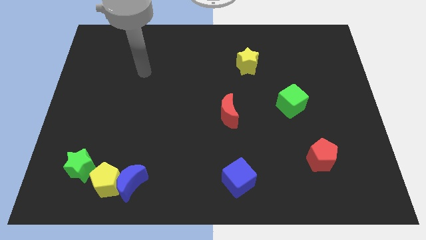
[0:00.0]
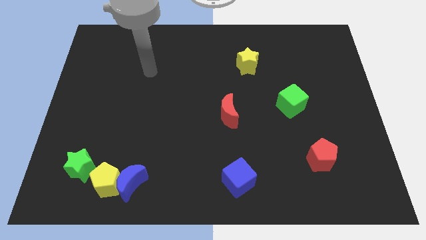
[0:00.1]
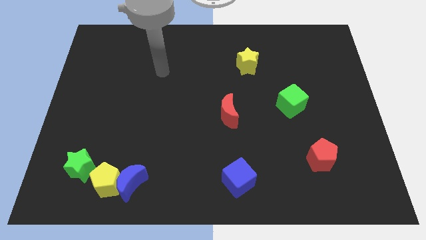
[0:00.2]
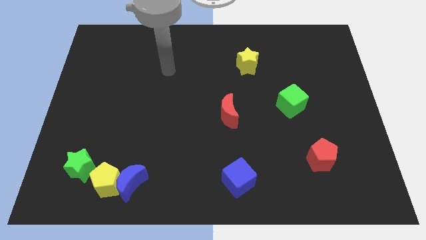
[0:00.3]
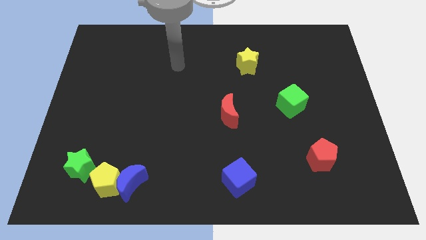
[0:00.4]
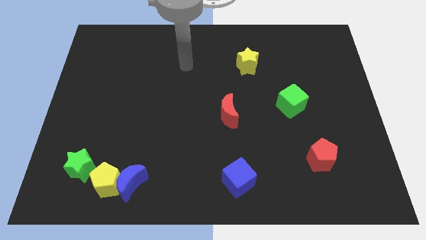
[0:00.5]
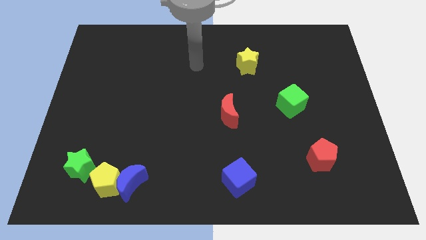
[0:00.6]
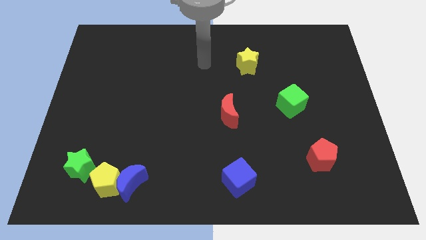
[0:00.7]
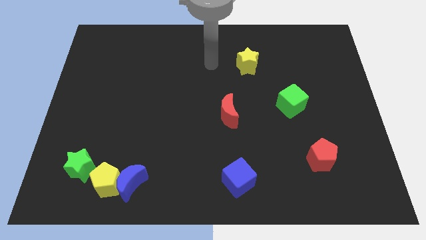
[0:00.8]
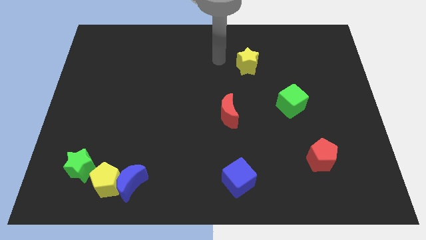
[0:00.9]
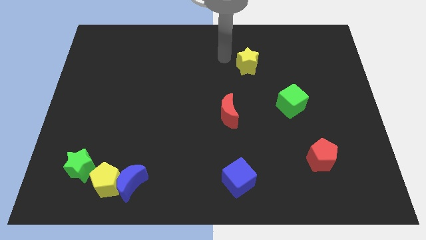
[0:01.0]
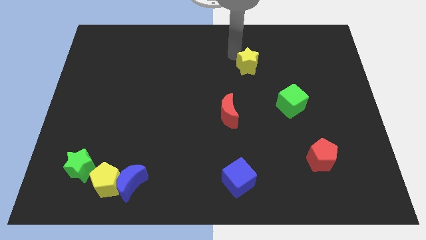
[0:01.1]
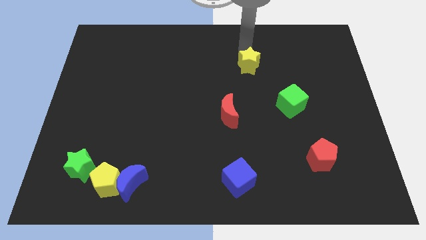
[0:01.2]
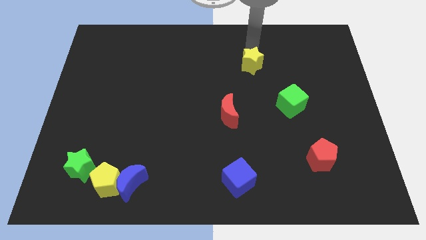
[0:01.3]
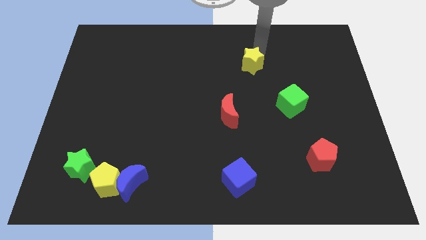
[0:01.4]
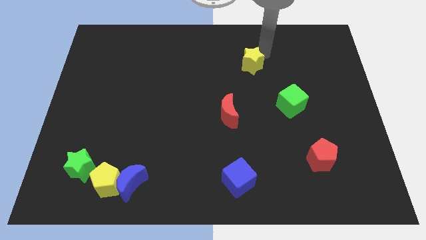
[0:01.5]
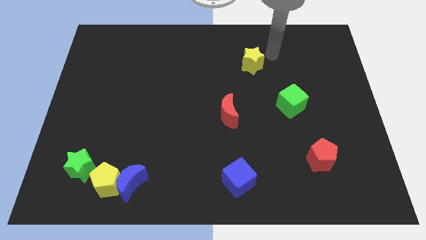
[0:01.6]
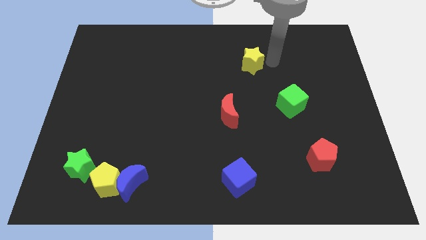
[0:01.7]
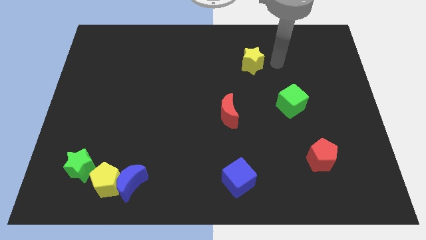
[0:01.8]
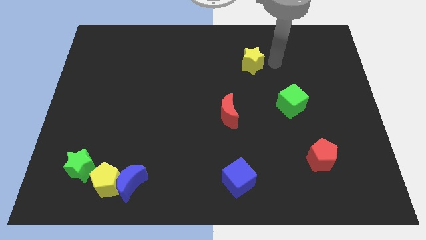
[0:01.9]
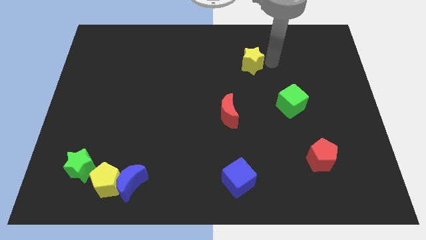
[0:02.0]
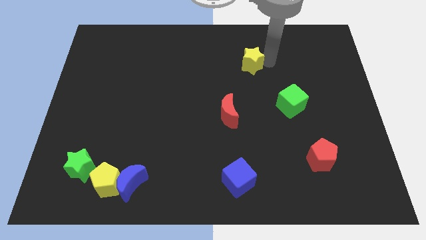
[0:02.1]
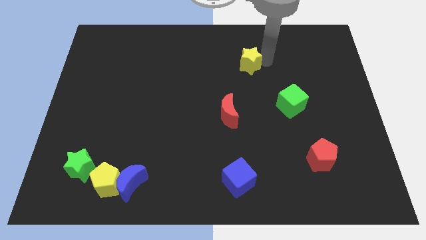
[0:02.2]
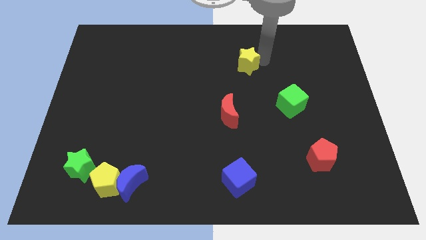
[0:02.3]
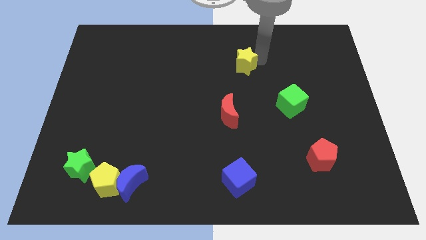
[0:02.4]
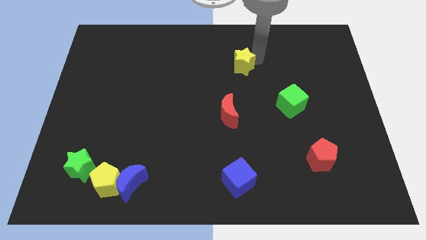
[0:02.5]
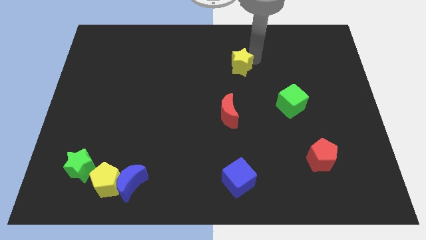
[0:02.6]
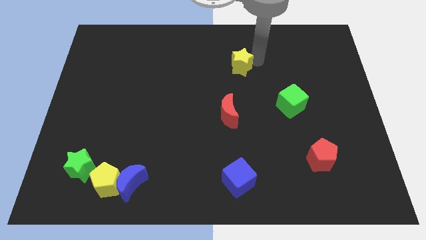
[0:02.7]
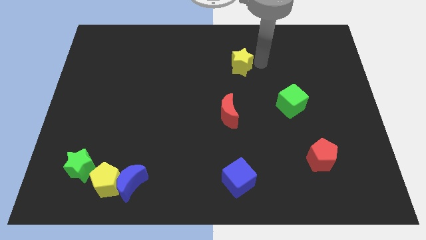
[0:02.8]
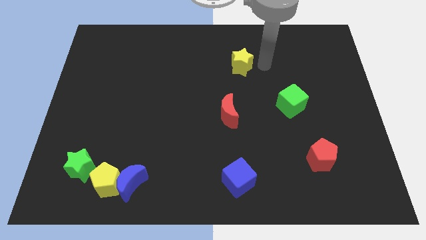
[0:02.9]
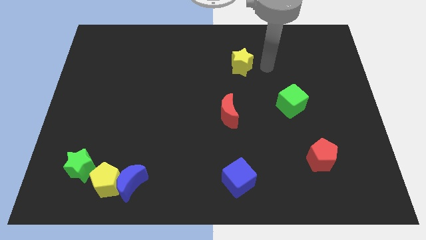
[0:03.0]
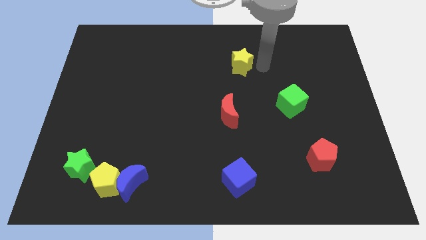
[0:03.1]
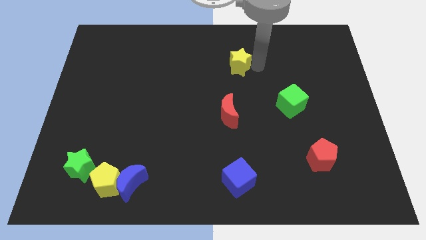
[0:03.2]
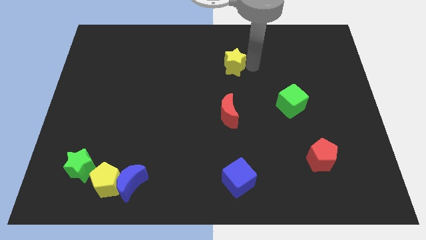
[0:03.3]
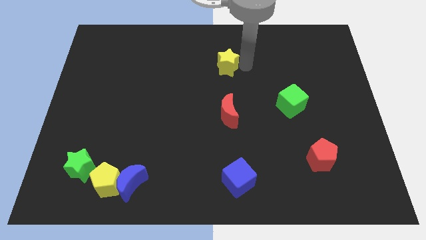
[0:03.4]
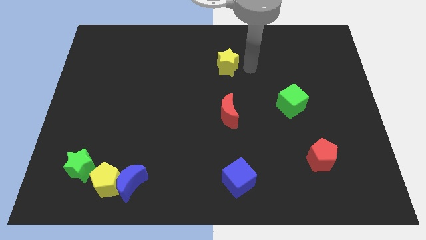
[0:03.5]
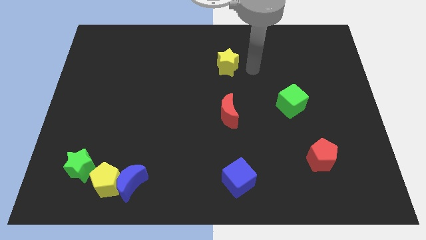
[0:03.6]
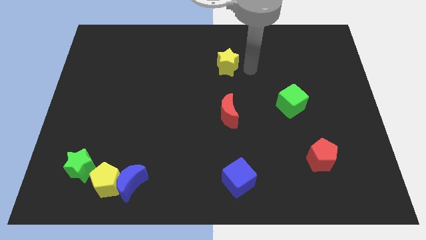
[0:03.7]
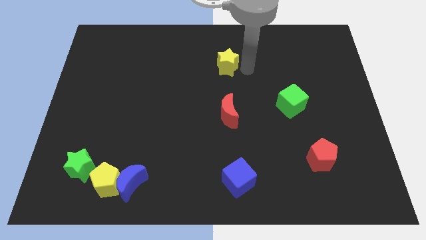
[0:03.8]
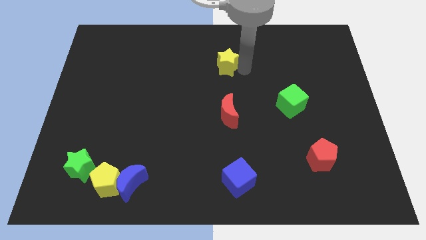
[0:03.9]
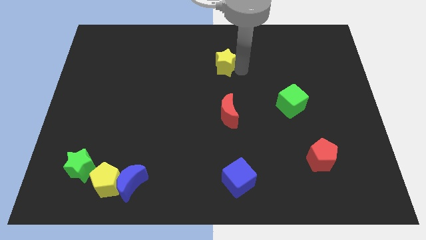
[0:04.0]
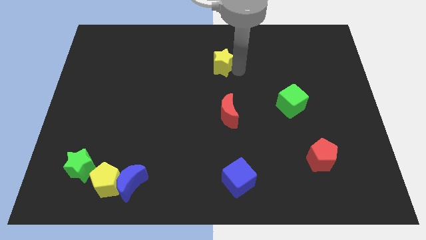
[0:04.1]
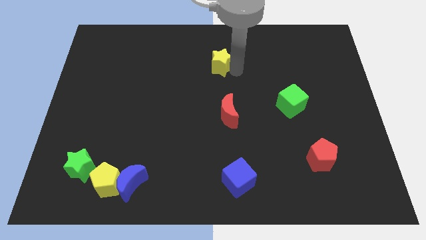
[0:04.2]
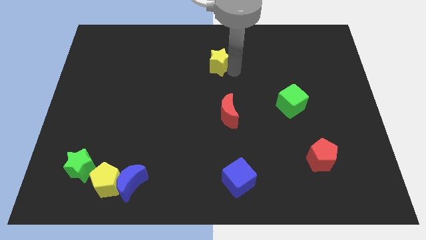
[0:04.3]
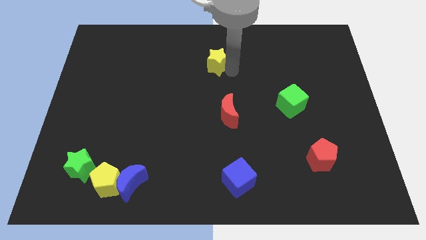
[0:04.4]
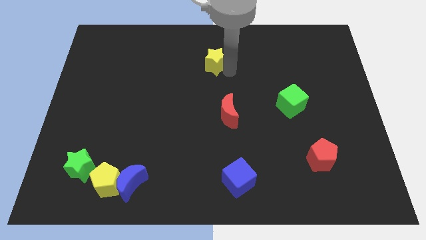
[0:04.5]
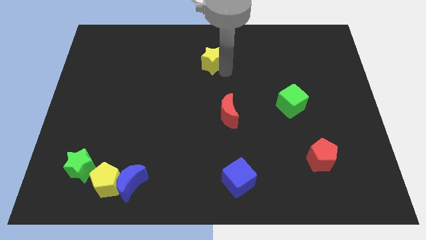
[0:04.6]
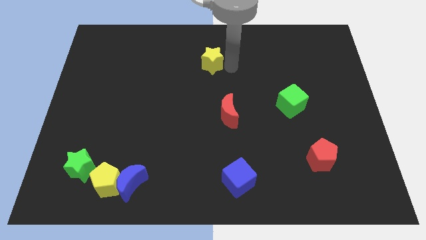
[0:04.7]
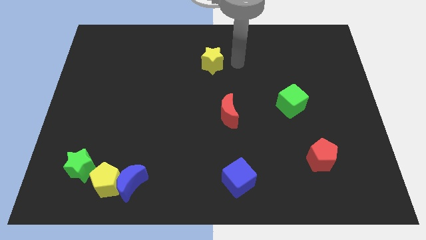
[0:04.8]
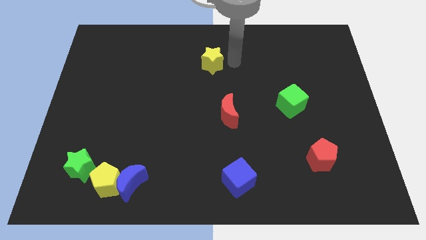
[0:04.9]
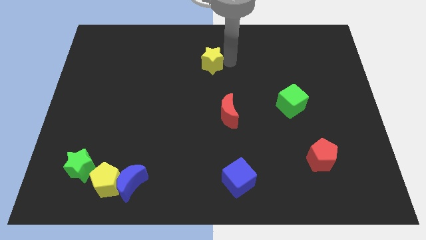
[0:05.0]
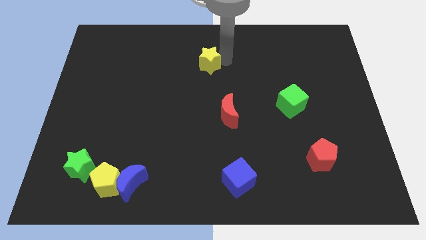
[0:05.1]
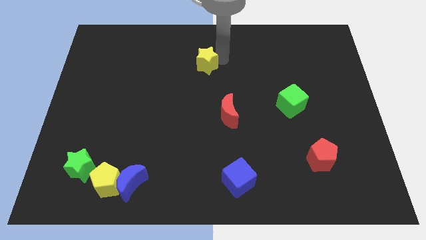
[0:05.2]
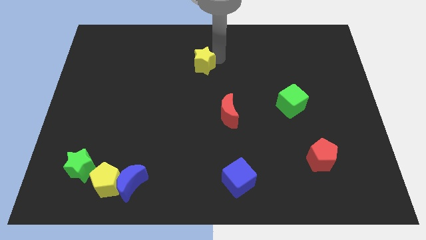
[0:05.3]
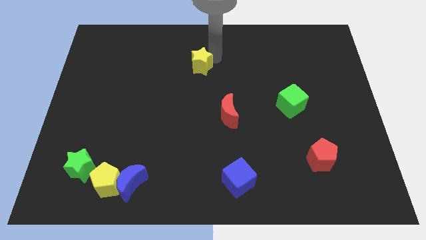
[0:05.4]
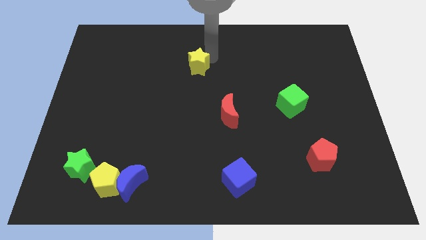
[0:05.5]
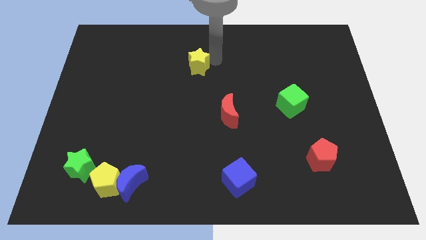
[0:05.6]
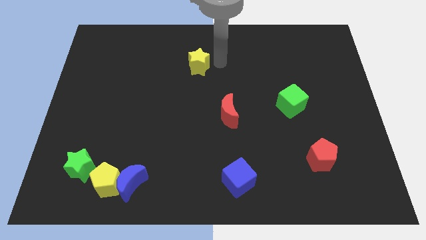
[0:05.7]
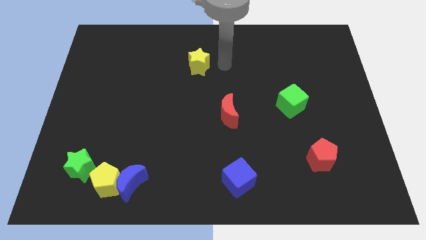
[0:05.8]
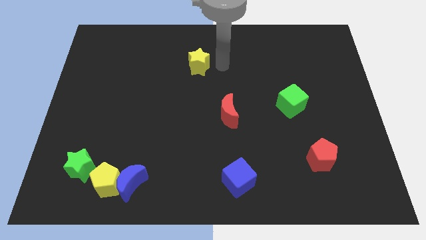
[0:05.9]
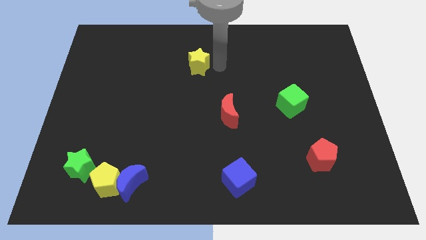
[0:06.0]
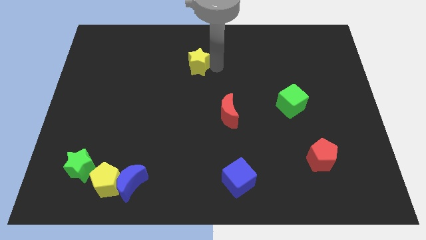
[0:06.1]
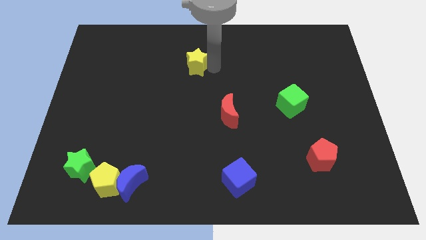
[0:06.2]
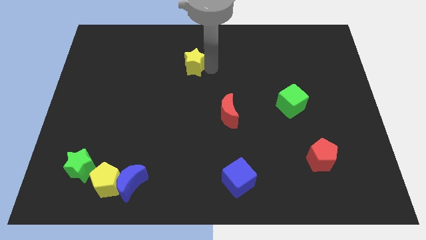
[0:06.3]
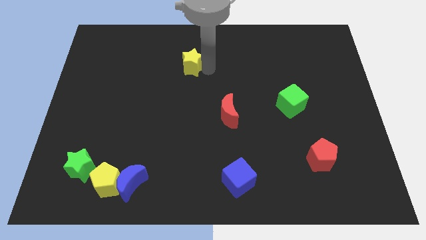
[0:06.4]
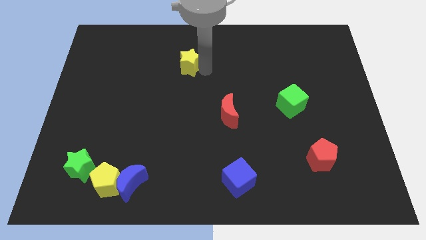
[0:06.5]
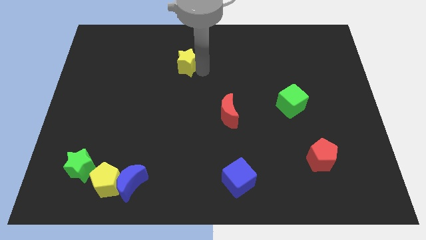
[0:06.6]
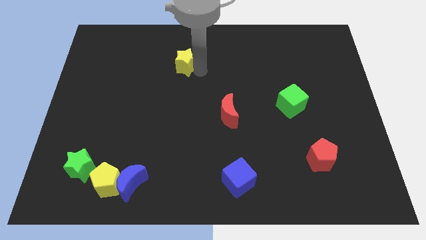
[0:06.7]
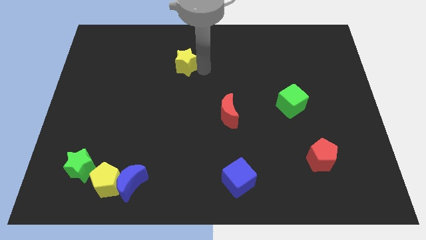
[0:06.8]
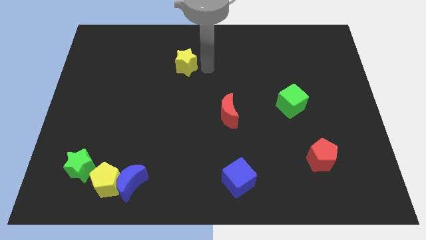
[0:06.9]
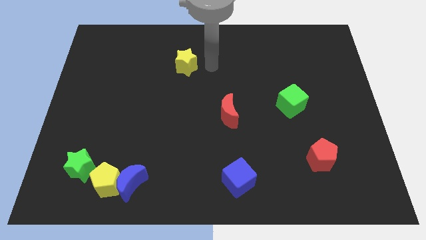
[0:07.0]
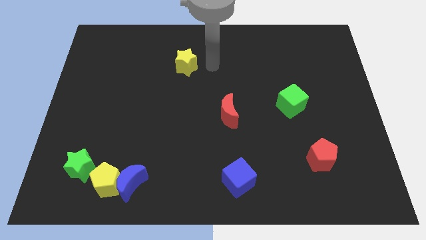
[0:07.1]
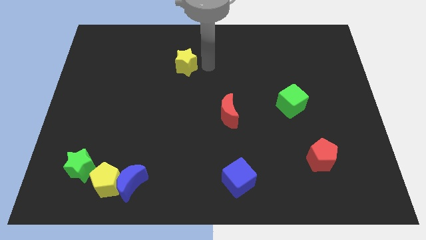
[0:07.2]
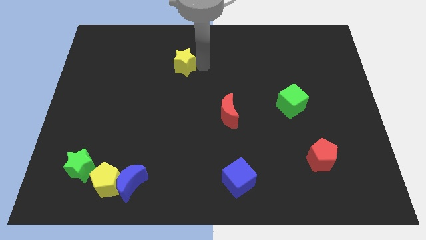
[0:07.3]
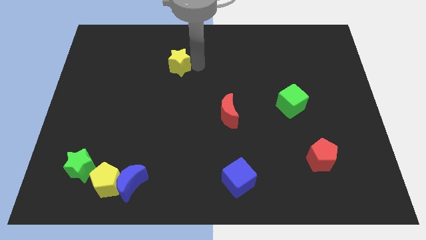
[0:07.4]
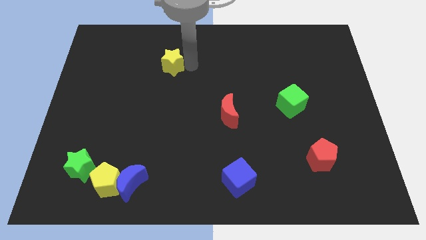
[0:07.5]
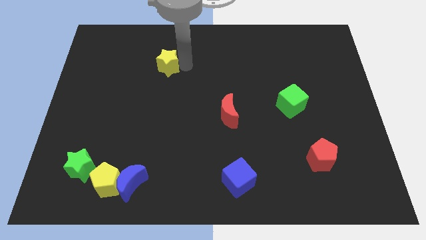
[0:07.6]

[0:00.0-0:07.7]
push the yellow star to the left

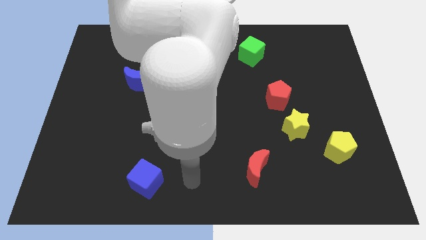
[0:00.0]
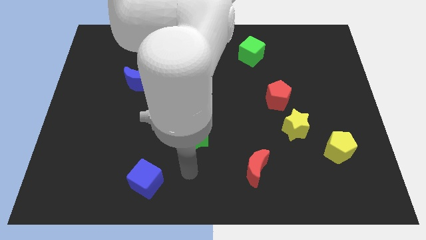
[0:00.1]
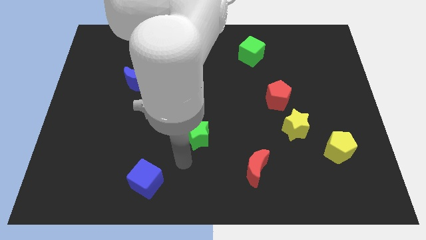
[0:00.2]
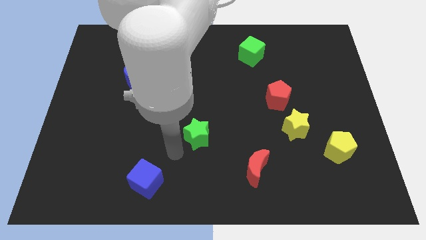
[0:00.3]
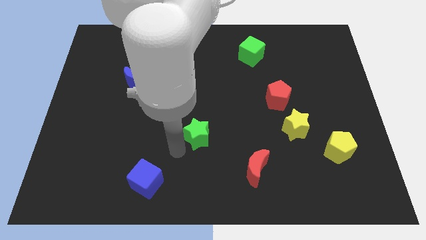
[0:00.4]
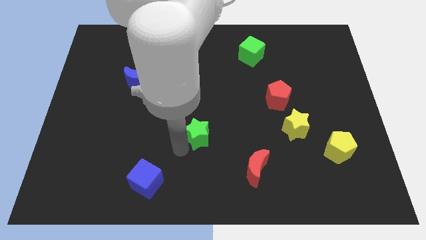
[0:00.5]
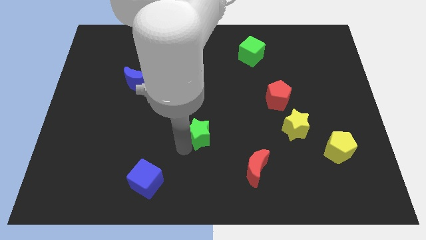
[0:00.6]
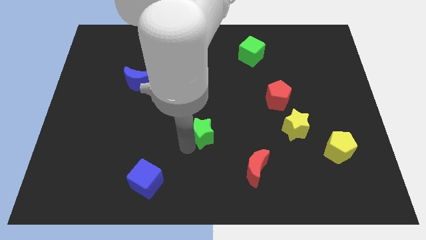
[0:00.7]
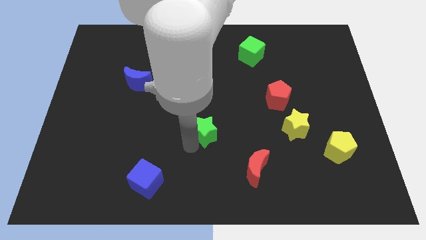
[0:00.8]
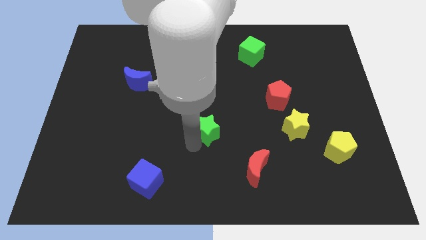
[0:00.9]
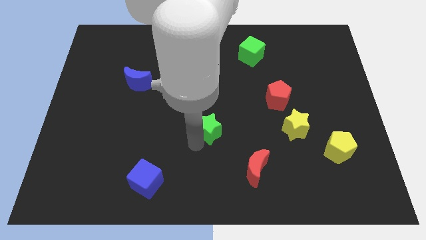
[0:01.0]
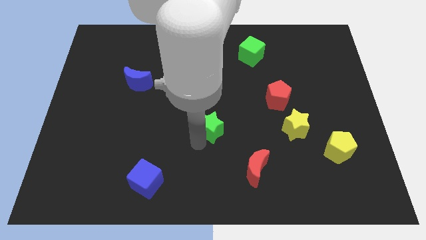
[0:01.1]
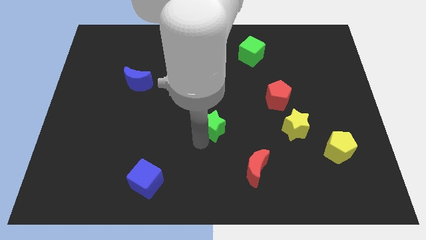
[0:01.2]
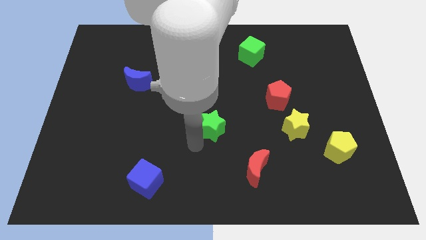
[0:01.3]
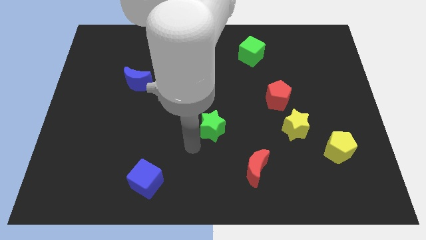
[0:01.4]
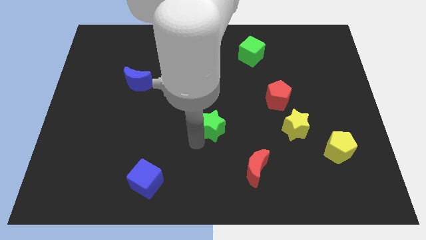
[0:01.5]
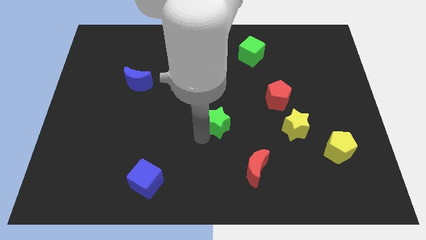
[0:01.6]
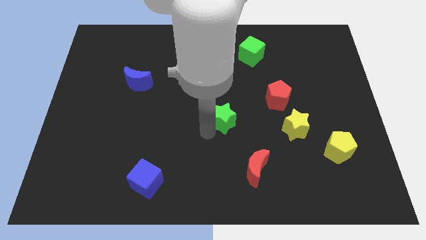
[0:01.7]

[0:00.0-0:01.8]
move the green star up and right somewhat
